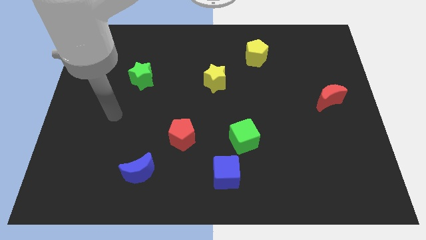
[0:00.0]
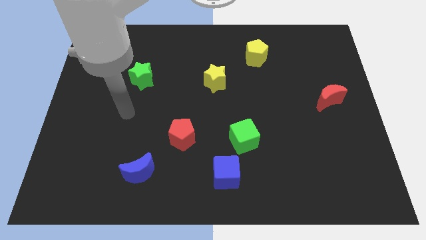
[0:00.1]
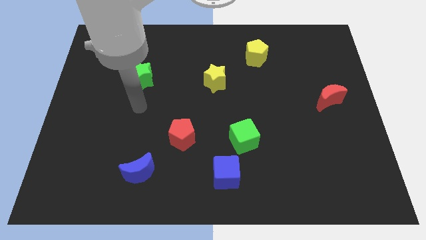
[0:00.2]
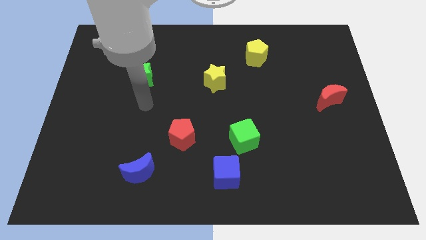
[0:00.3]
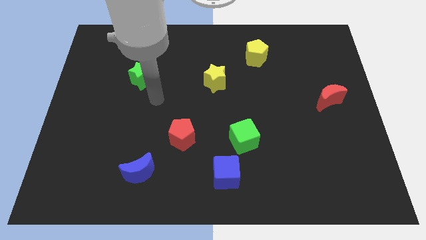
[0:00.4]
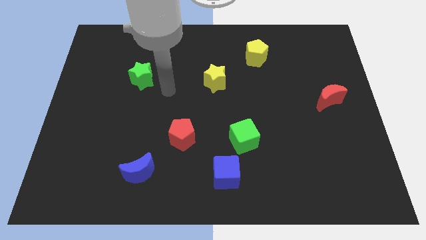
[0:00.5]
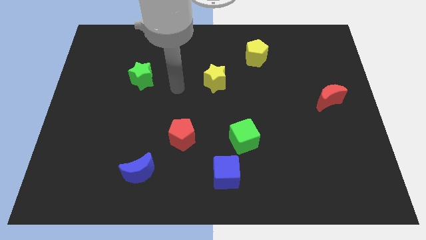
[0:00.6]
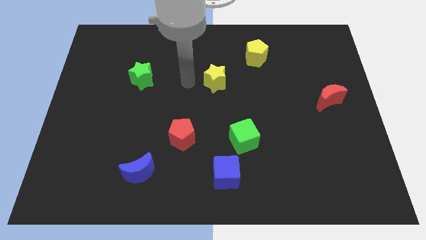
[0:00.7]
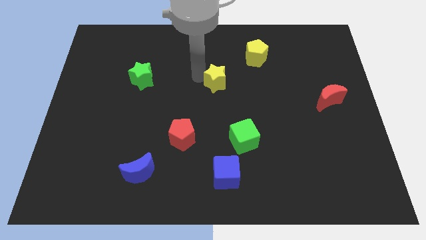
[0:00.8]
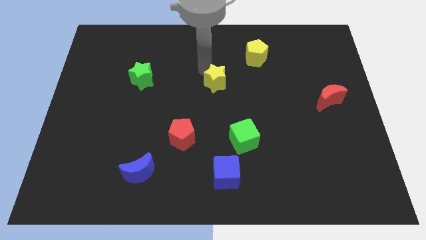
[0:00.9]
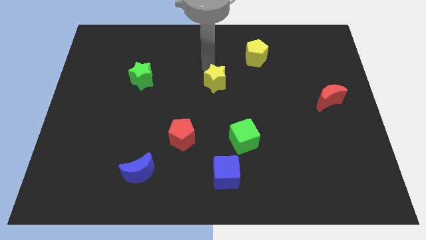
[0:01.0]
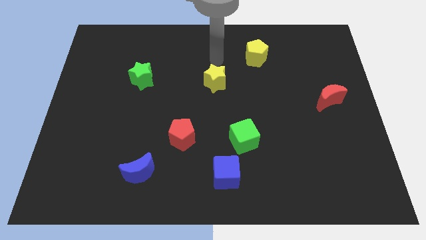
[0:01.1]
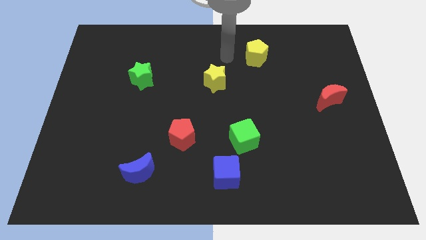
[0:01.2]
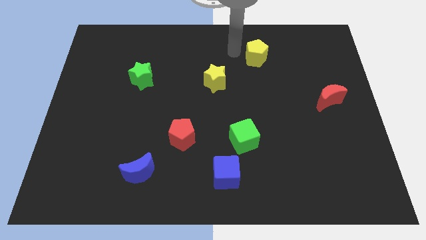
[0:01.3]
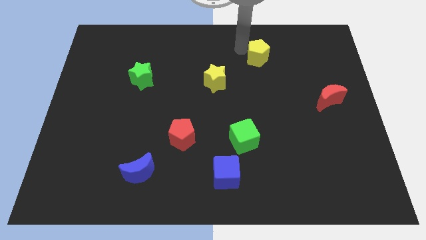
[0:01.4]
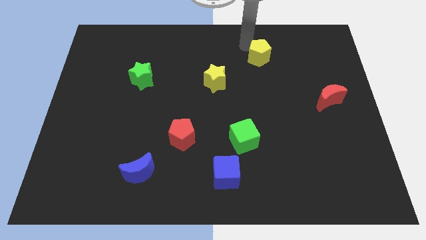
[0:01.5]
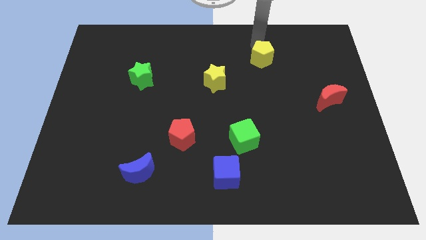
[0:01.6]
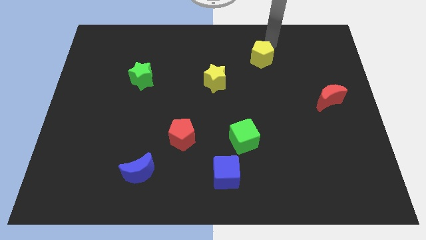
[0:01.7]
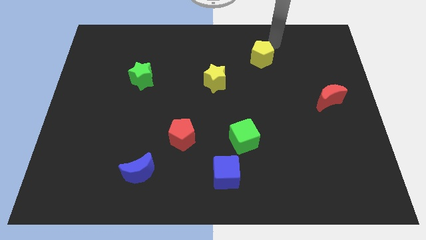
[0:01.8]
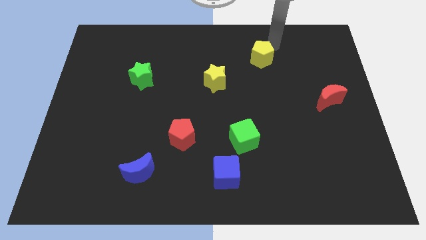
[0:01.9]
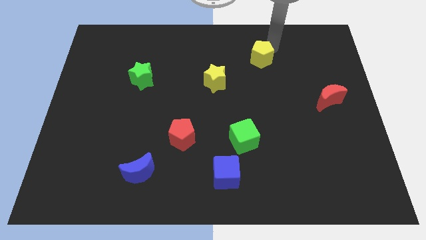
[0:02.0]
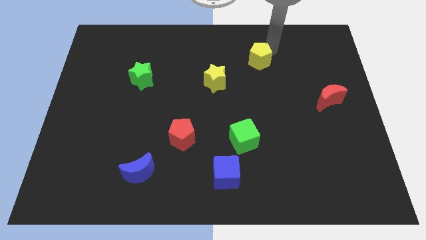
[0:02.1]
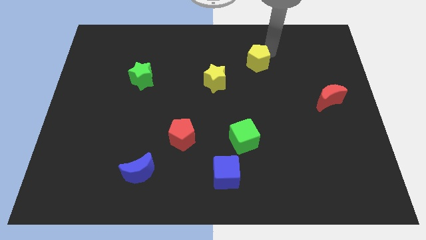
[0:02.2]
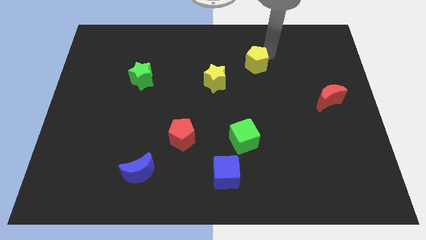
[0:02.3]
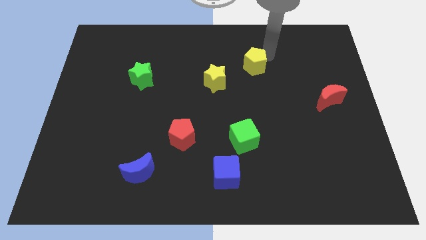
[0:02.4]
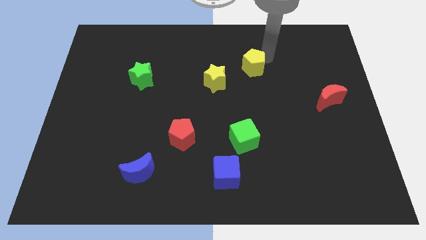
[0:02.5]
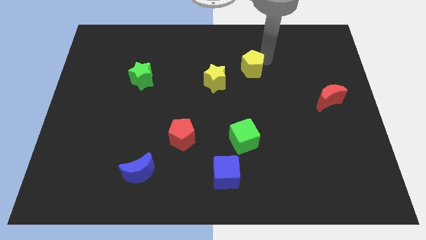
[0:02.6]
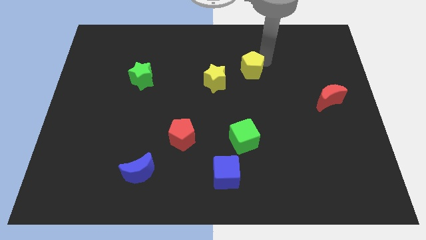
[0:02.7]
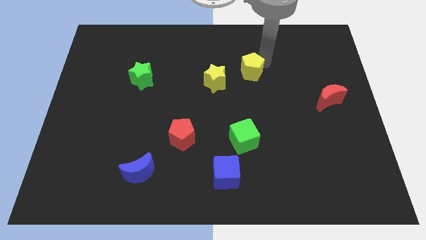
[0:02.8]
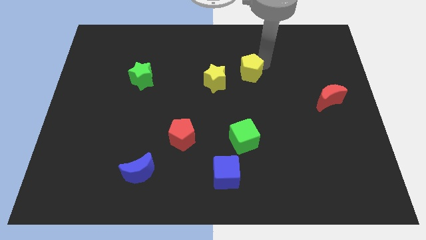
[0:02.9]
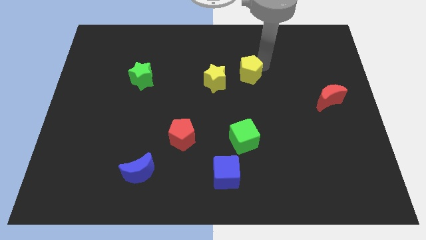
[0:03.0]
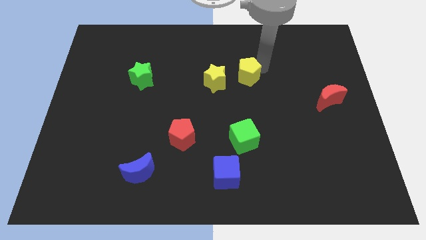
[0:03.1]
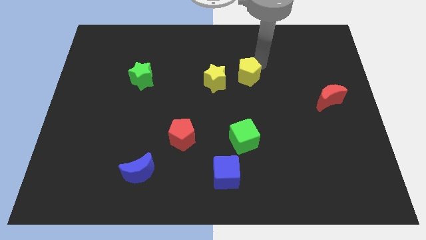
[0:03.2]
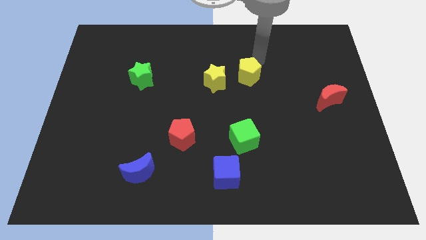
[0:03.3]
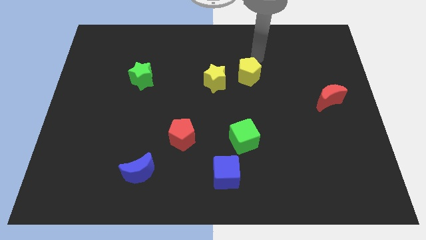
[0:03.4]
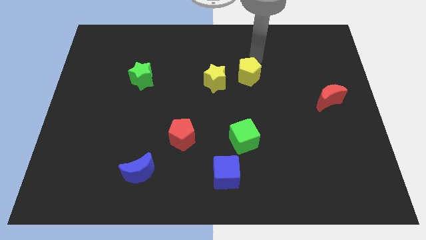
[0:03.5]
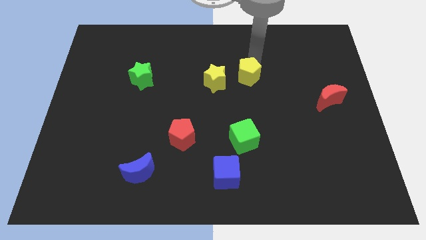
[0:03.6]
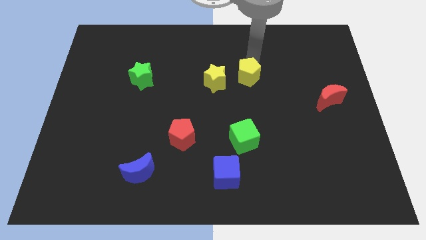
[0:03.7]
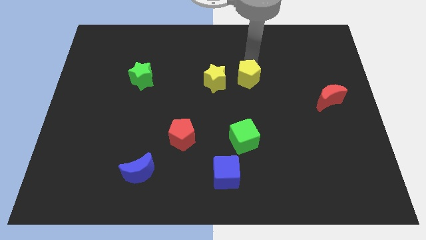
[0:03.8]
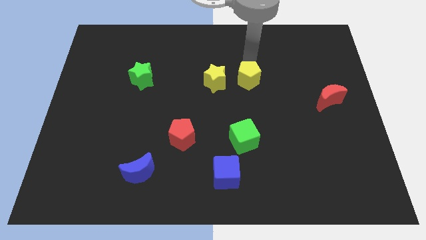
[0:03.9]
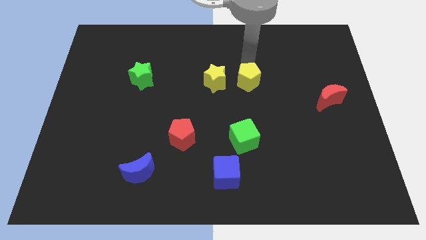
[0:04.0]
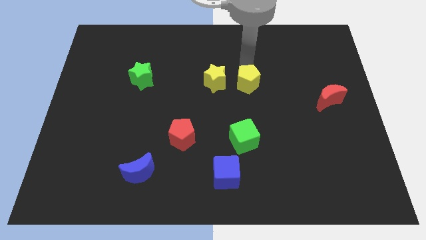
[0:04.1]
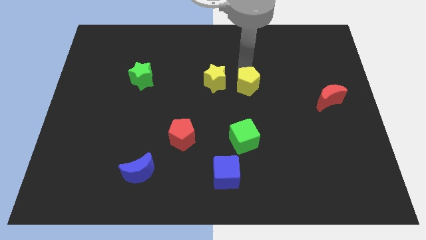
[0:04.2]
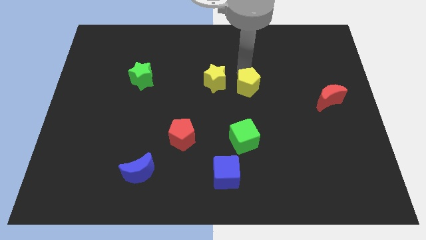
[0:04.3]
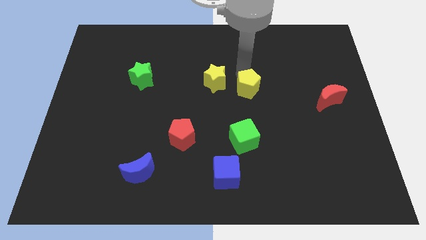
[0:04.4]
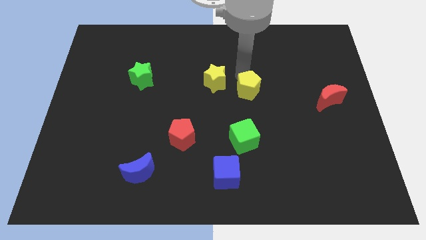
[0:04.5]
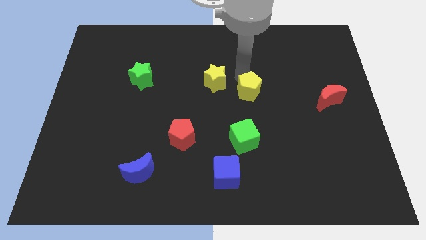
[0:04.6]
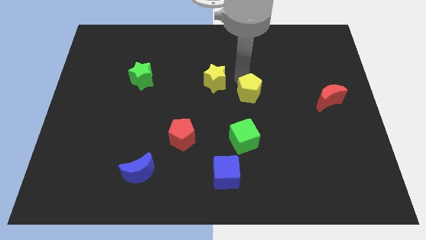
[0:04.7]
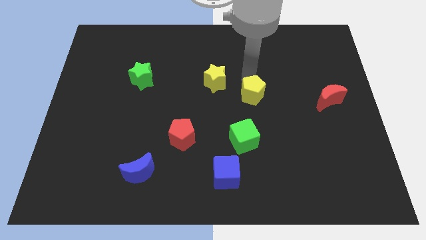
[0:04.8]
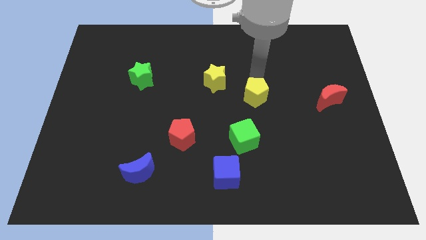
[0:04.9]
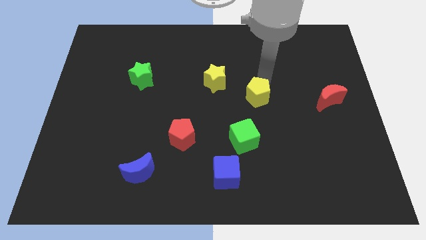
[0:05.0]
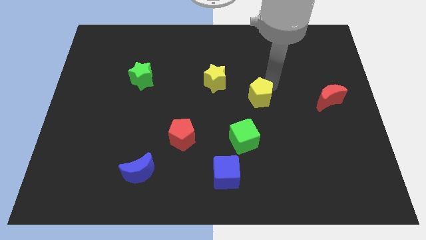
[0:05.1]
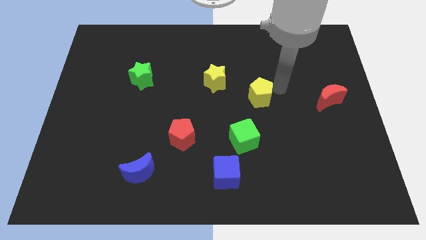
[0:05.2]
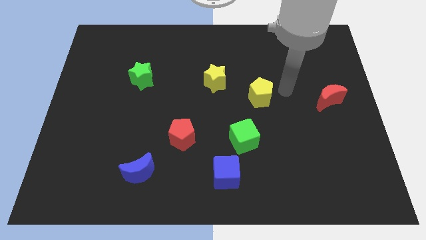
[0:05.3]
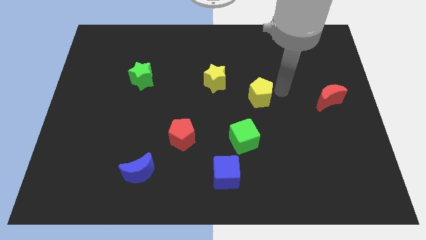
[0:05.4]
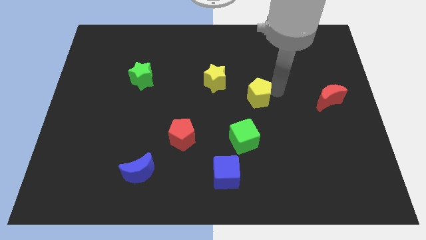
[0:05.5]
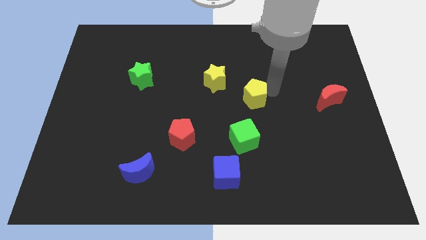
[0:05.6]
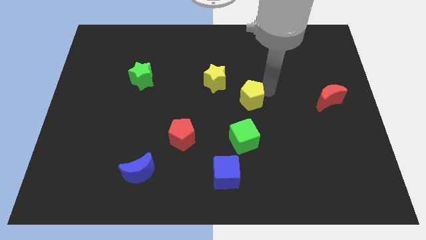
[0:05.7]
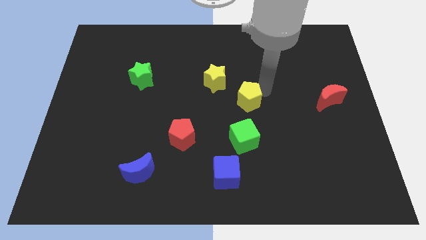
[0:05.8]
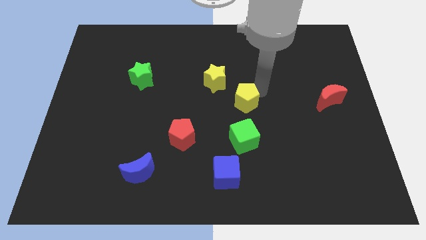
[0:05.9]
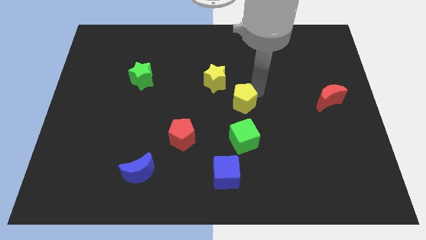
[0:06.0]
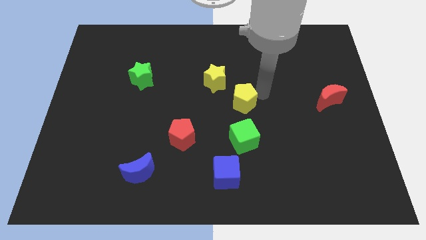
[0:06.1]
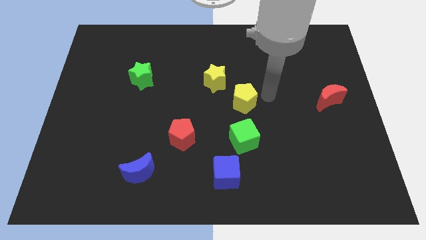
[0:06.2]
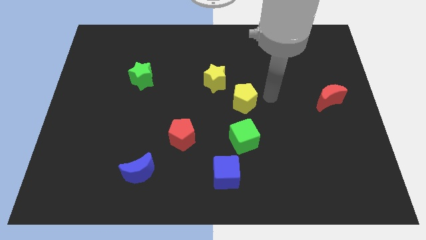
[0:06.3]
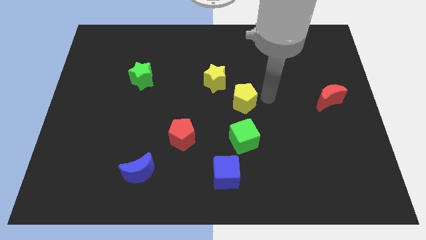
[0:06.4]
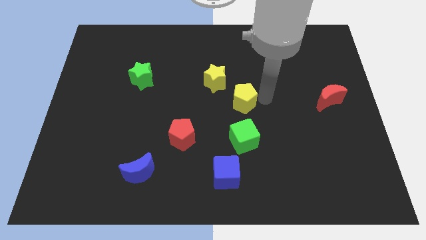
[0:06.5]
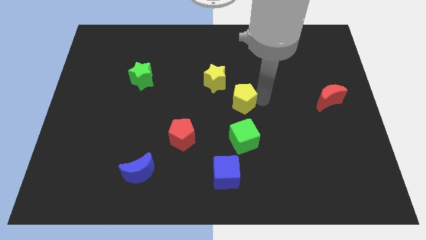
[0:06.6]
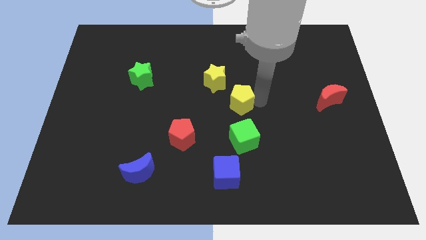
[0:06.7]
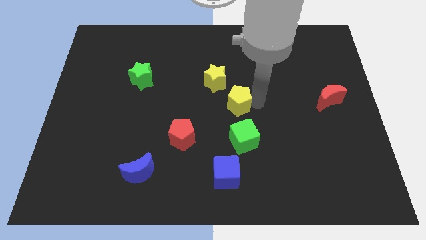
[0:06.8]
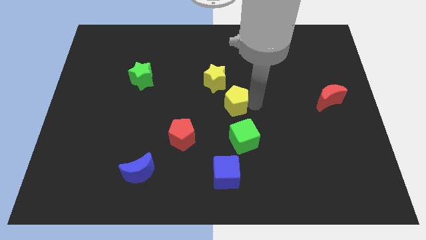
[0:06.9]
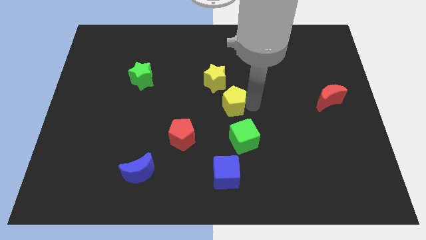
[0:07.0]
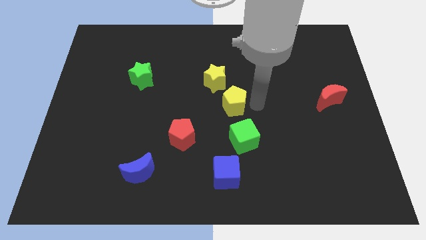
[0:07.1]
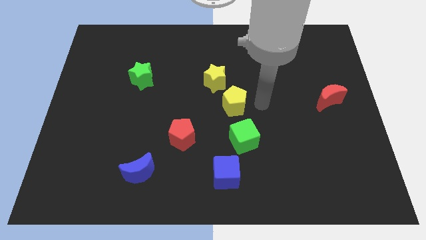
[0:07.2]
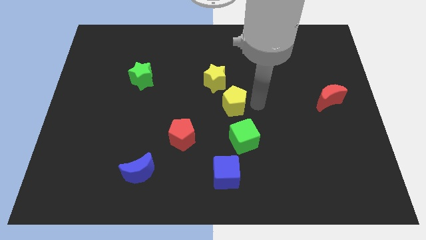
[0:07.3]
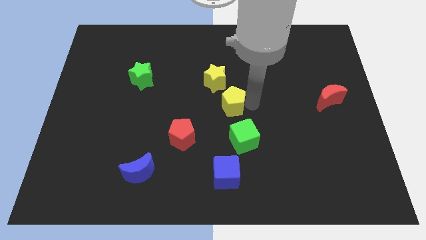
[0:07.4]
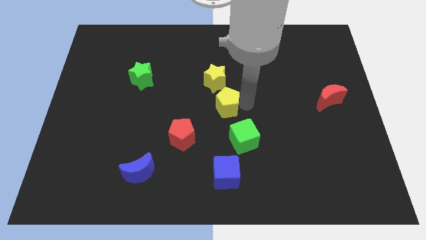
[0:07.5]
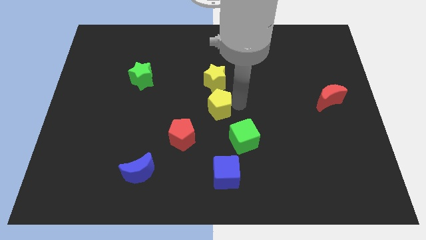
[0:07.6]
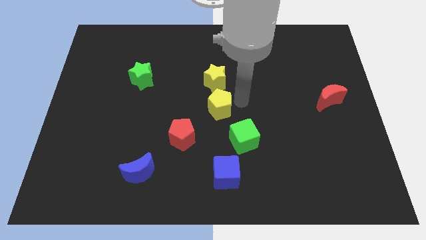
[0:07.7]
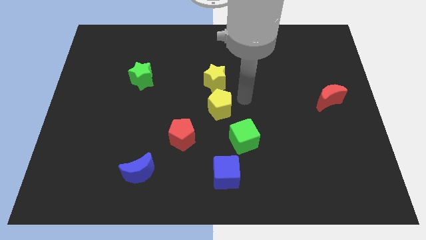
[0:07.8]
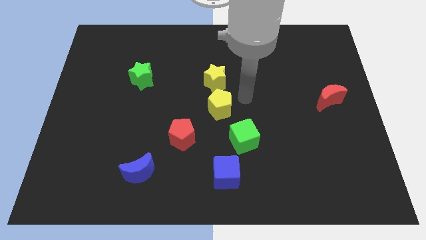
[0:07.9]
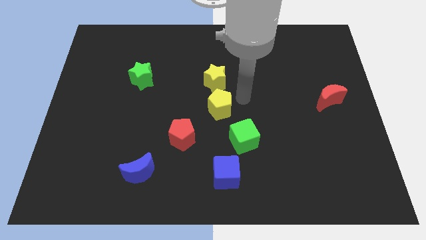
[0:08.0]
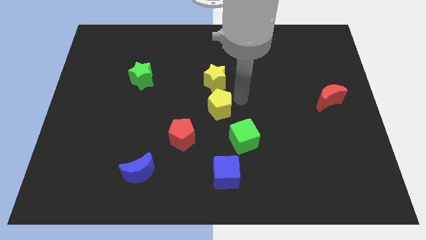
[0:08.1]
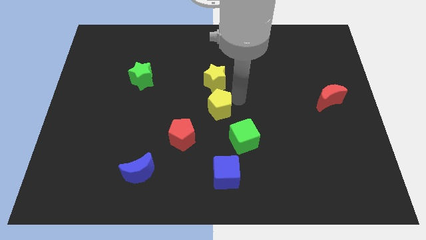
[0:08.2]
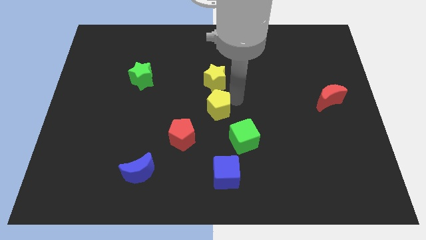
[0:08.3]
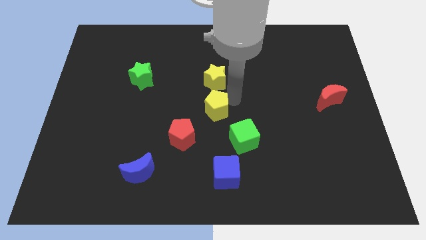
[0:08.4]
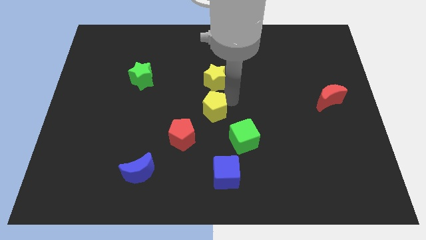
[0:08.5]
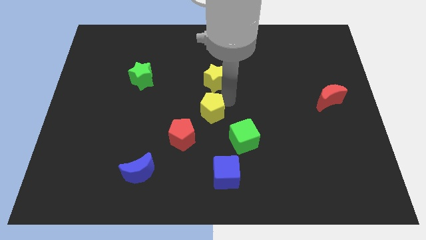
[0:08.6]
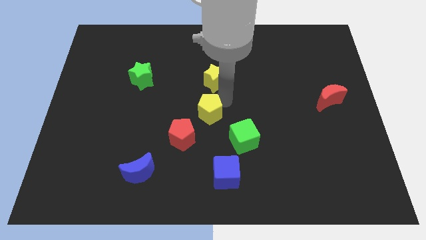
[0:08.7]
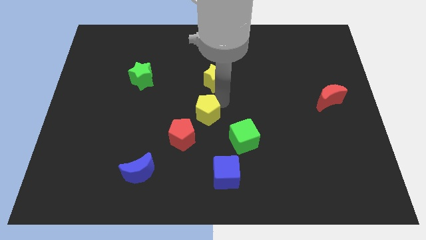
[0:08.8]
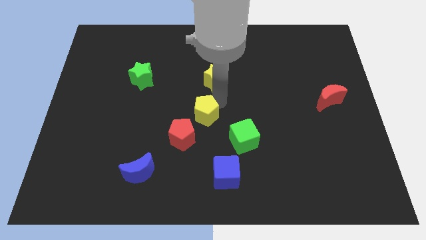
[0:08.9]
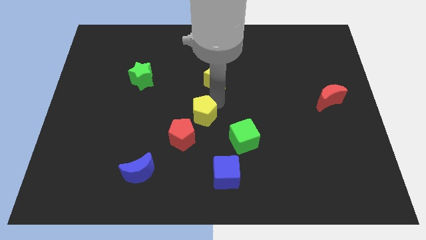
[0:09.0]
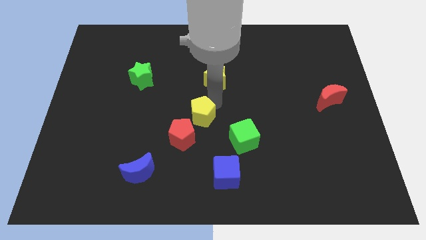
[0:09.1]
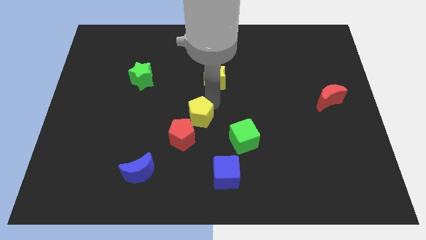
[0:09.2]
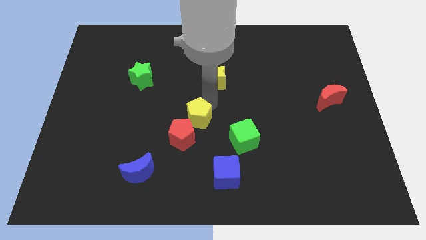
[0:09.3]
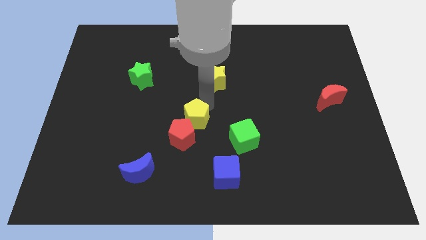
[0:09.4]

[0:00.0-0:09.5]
slide the yellow pentagon close to the red pentagon
